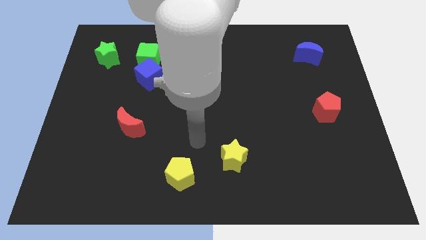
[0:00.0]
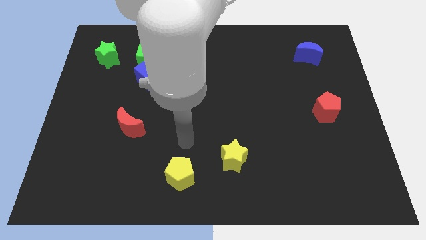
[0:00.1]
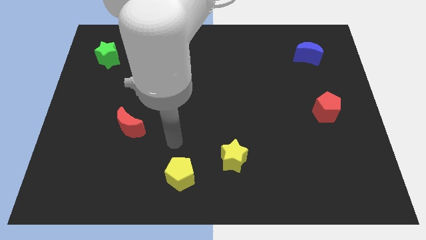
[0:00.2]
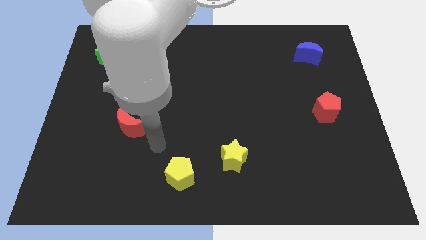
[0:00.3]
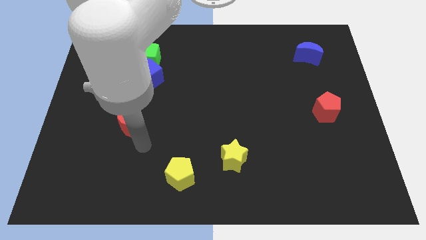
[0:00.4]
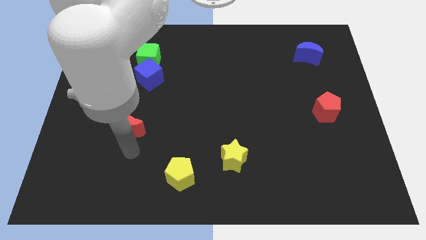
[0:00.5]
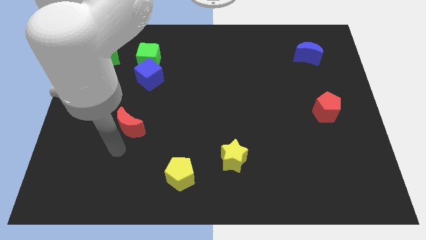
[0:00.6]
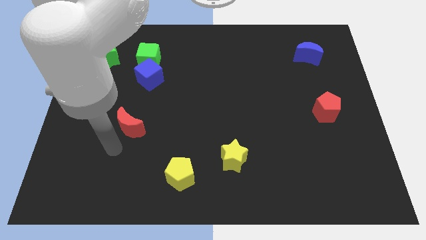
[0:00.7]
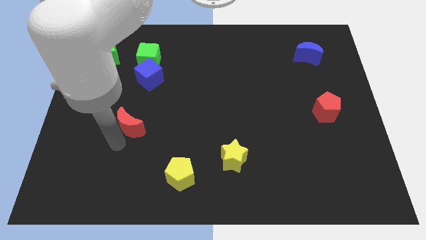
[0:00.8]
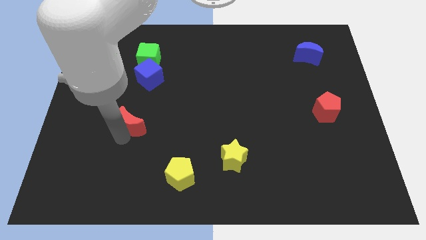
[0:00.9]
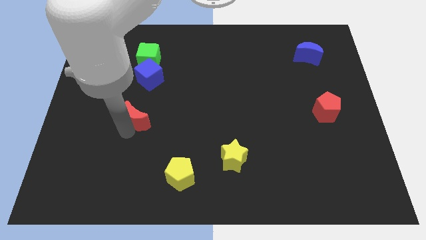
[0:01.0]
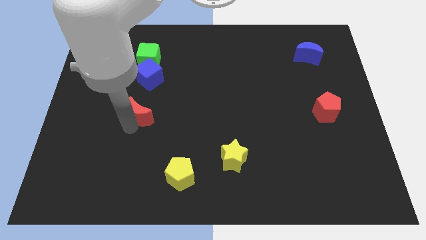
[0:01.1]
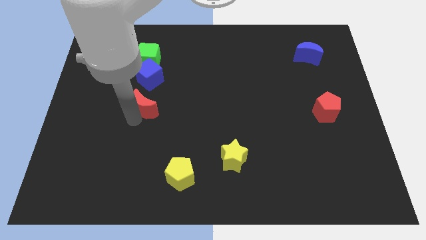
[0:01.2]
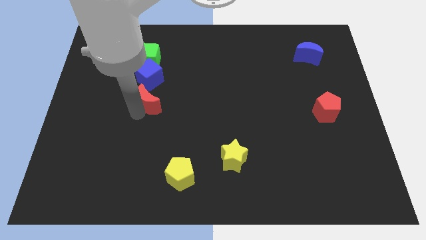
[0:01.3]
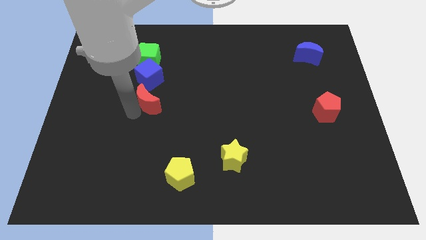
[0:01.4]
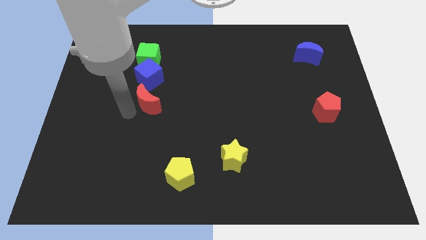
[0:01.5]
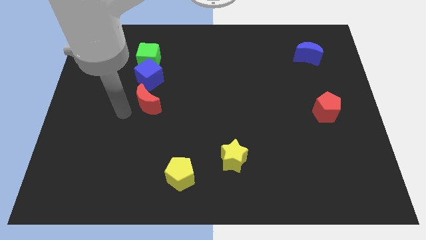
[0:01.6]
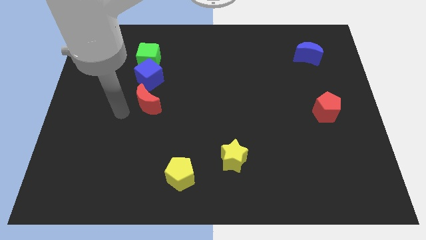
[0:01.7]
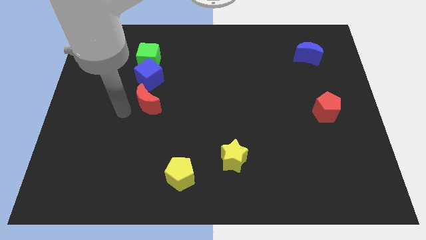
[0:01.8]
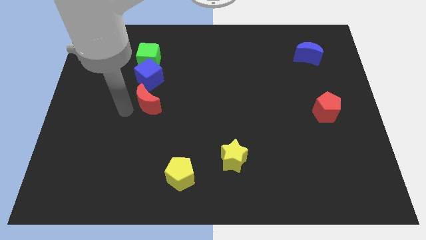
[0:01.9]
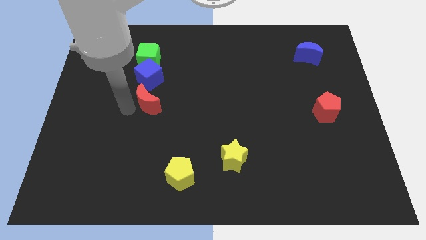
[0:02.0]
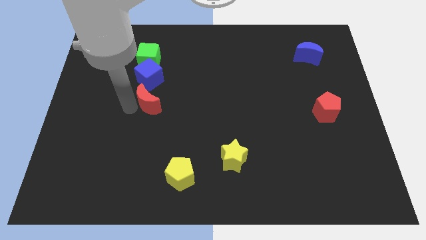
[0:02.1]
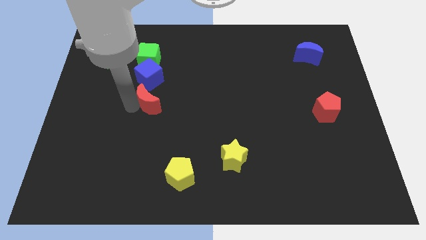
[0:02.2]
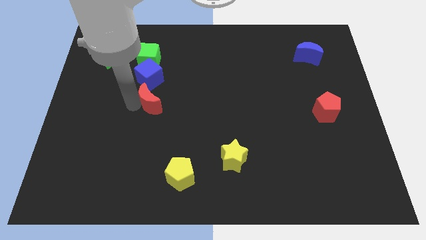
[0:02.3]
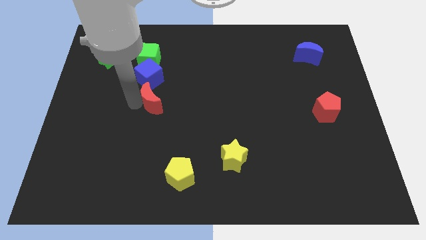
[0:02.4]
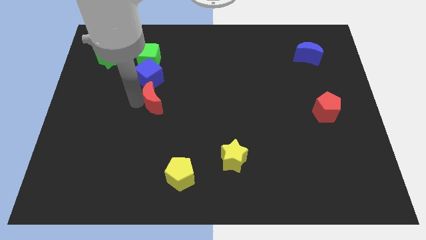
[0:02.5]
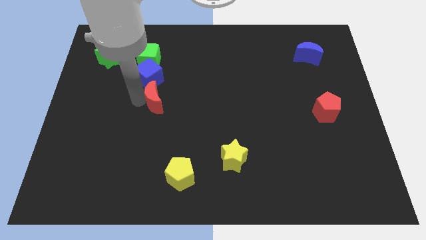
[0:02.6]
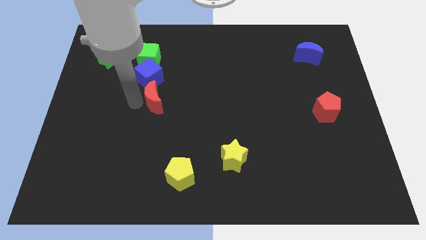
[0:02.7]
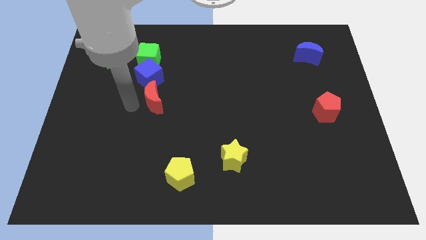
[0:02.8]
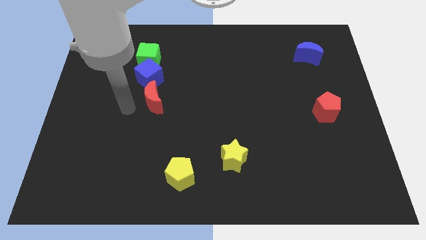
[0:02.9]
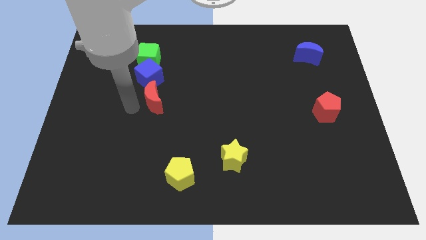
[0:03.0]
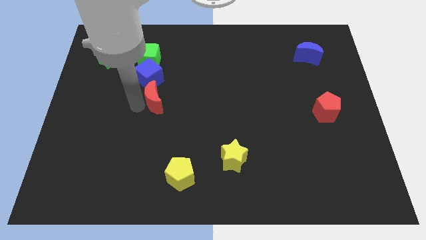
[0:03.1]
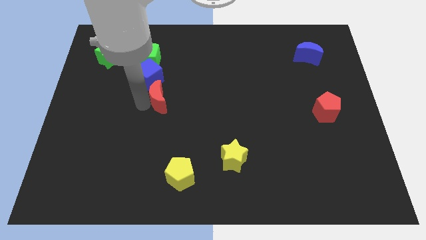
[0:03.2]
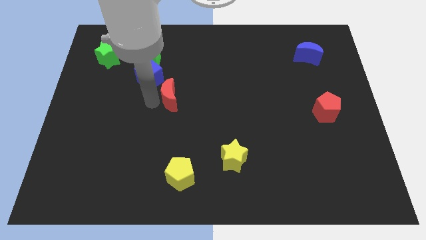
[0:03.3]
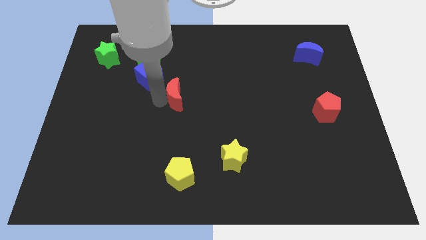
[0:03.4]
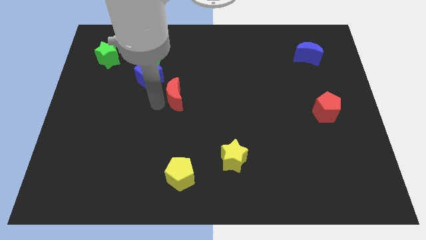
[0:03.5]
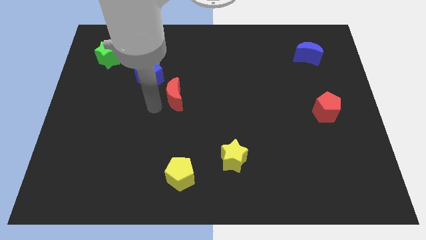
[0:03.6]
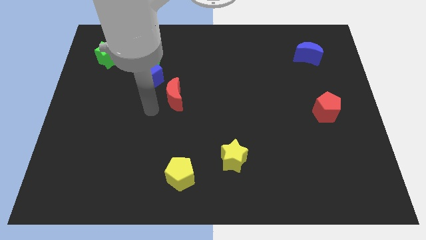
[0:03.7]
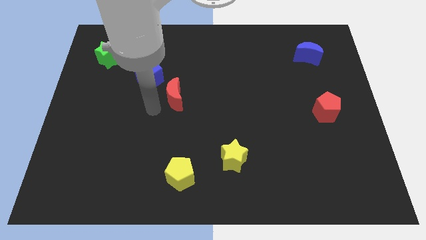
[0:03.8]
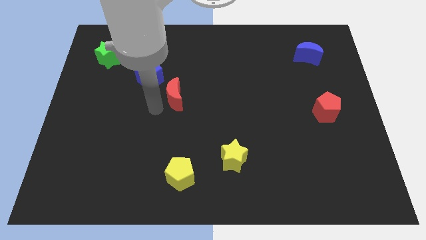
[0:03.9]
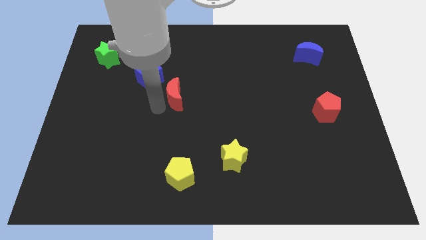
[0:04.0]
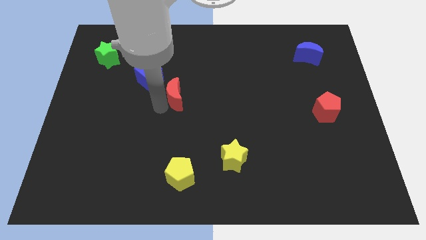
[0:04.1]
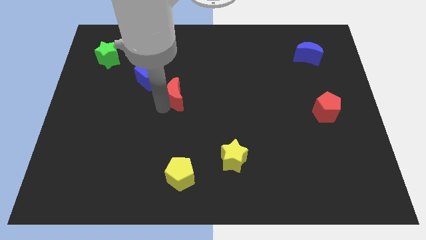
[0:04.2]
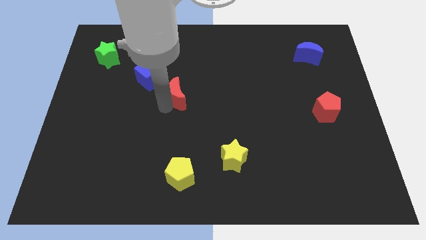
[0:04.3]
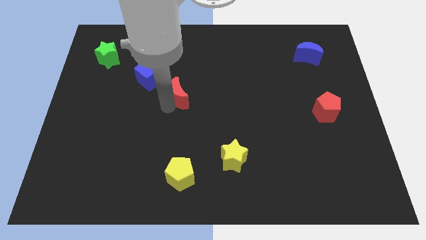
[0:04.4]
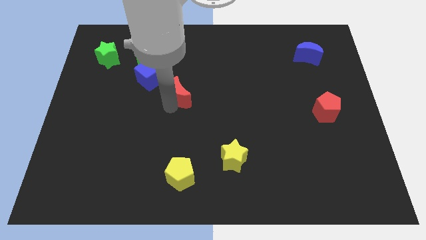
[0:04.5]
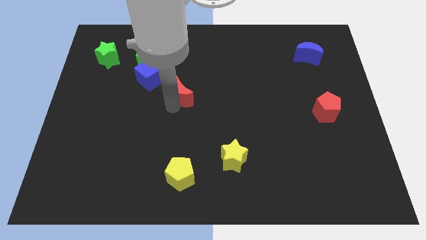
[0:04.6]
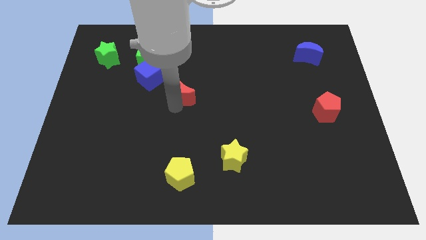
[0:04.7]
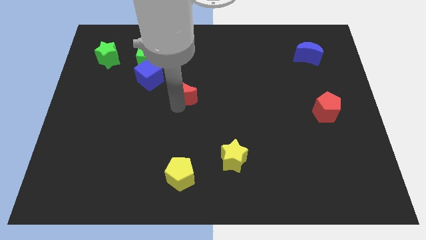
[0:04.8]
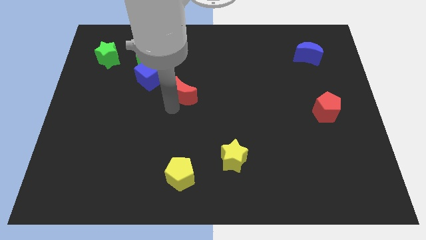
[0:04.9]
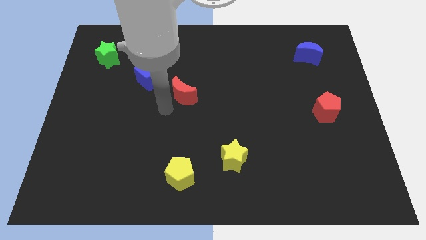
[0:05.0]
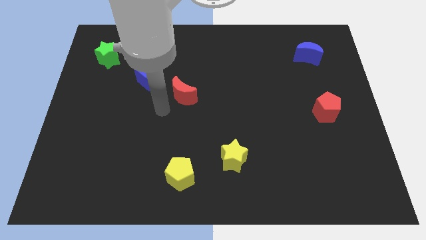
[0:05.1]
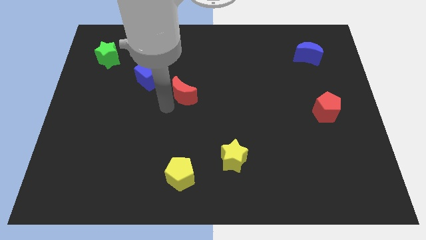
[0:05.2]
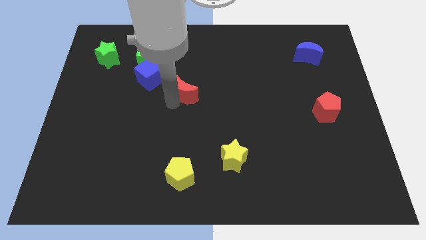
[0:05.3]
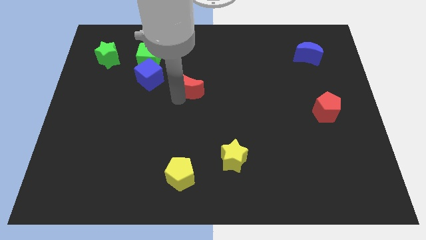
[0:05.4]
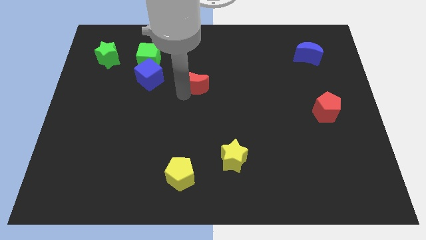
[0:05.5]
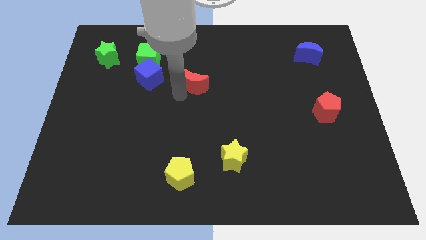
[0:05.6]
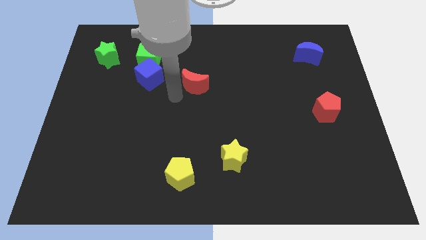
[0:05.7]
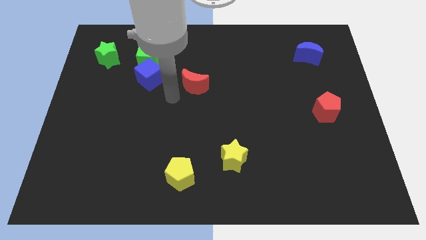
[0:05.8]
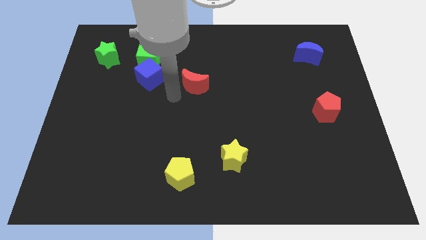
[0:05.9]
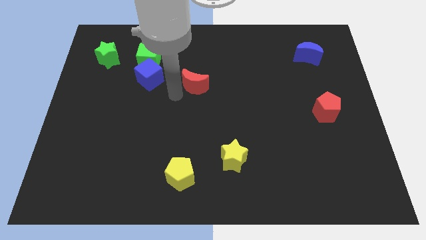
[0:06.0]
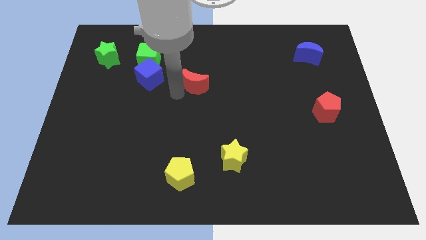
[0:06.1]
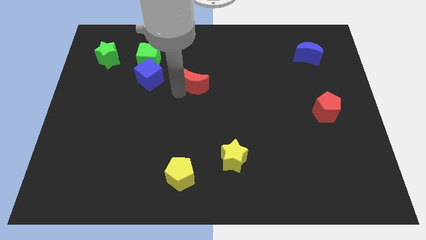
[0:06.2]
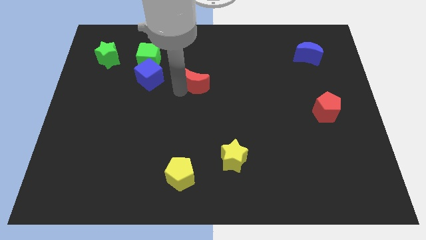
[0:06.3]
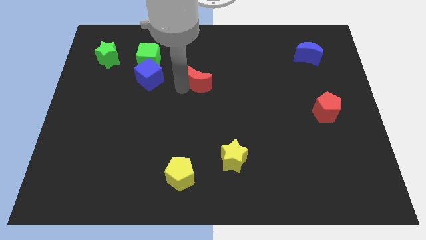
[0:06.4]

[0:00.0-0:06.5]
move the red moon up and then right

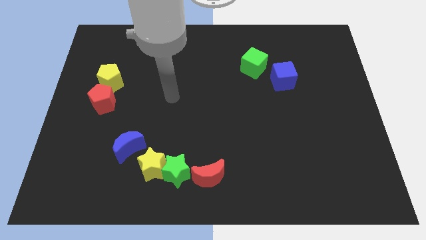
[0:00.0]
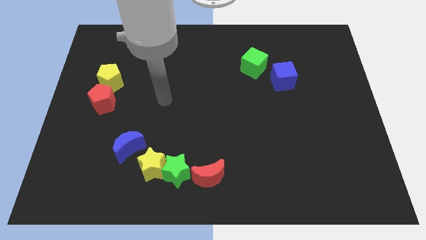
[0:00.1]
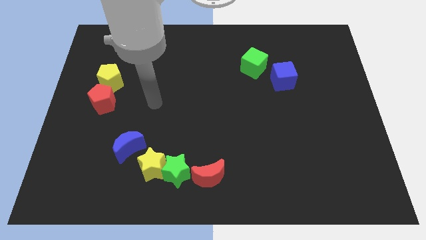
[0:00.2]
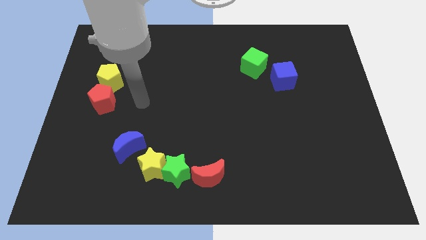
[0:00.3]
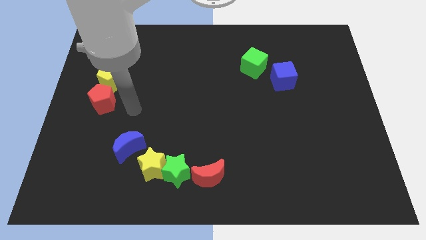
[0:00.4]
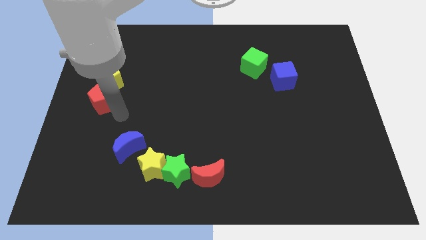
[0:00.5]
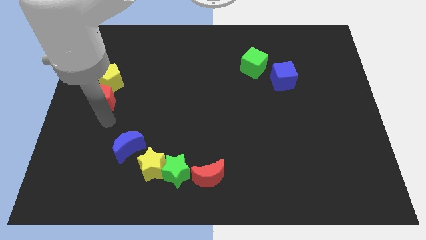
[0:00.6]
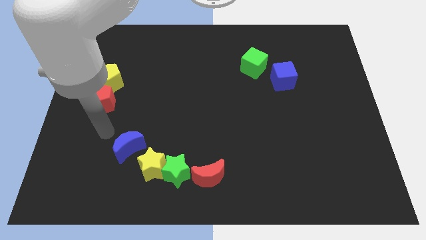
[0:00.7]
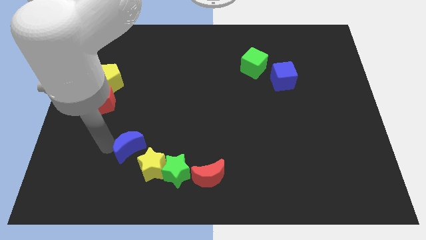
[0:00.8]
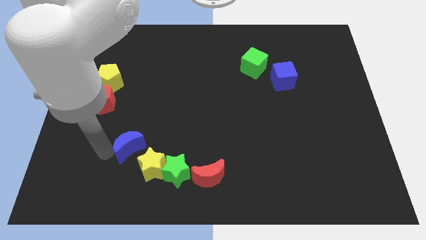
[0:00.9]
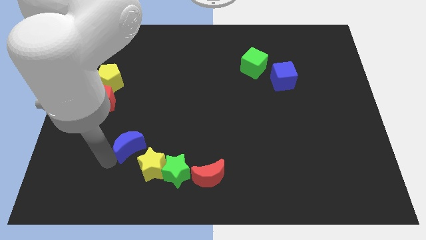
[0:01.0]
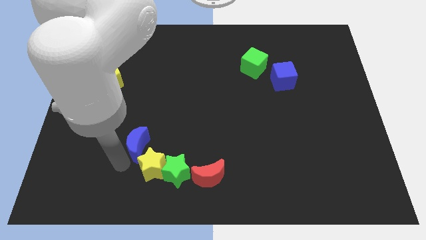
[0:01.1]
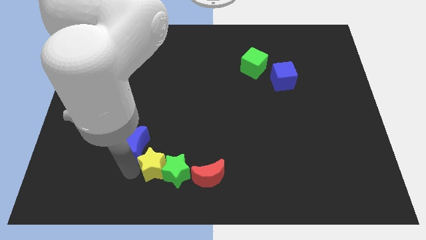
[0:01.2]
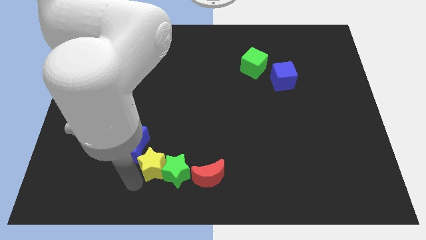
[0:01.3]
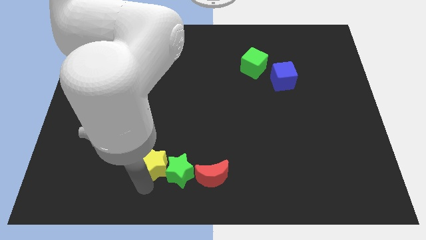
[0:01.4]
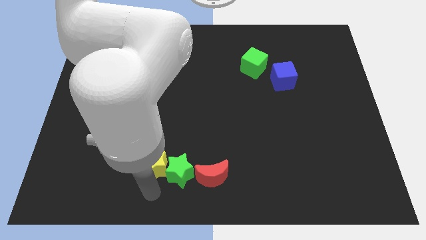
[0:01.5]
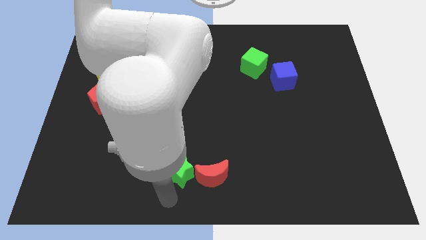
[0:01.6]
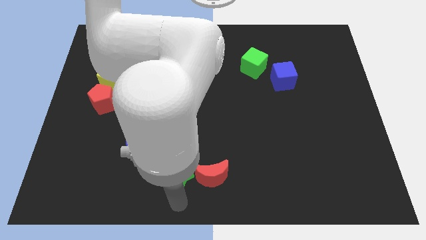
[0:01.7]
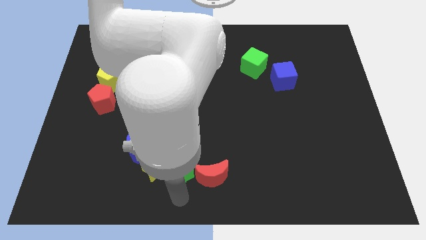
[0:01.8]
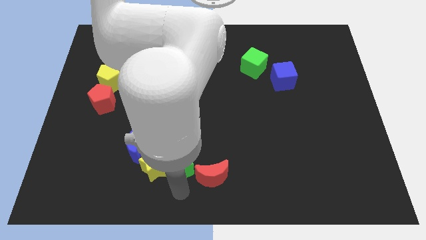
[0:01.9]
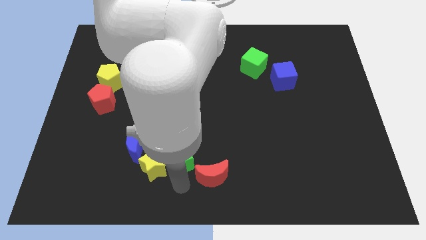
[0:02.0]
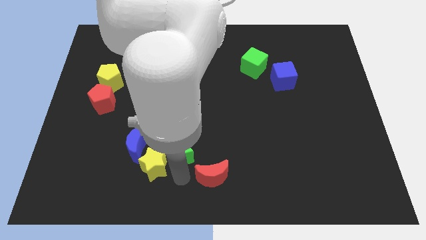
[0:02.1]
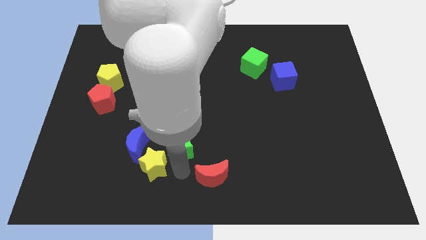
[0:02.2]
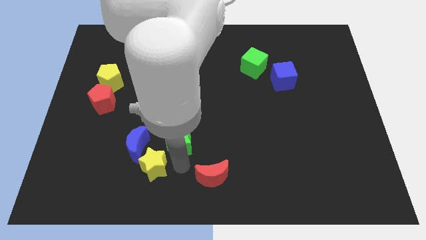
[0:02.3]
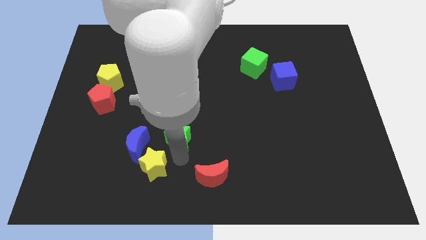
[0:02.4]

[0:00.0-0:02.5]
move the green star a little up
